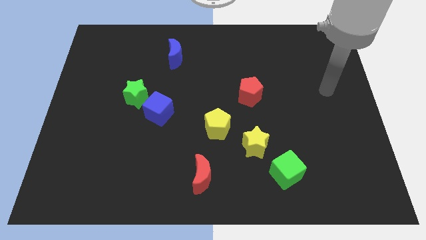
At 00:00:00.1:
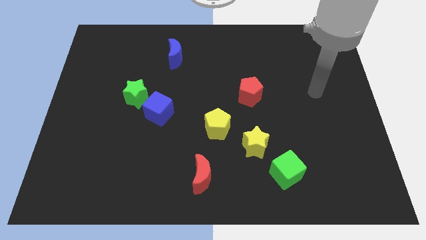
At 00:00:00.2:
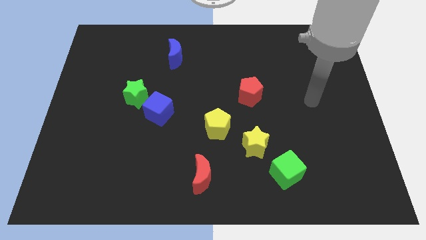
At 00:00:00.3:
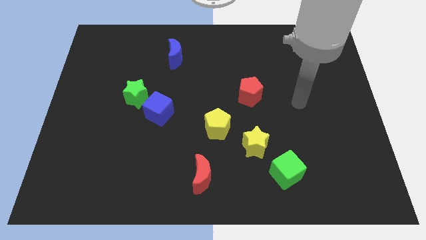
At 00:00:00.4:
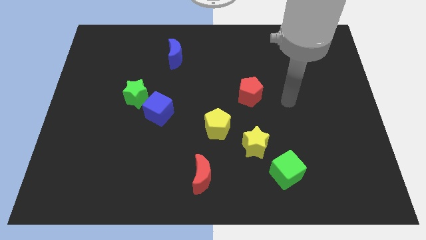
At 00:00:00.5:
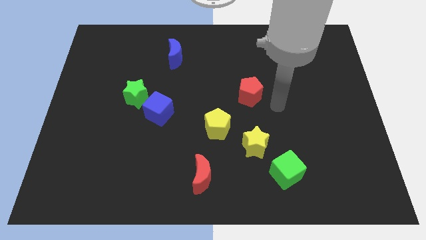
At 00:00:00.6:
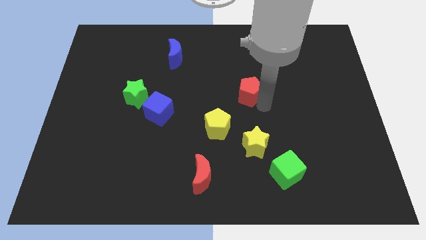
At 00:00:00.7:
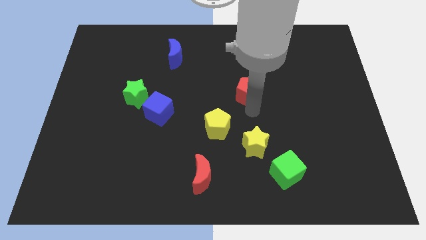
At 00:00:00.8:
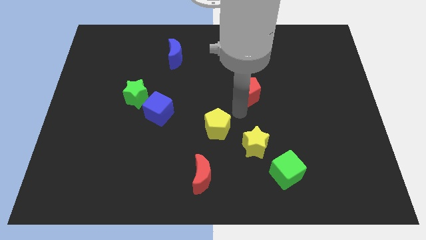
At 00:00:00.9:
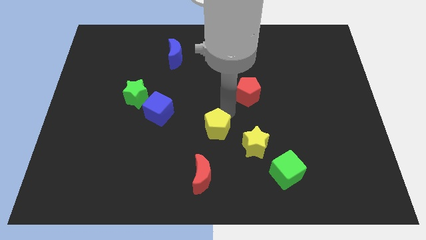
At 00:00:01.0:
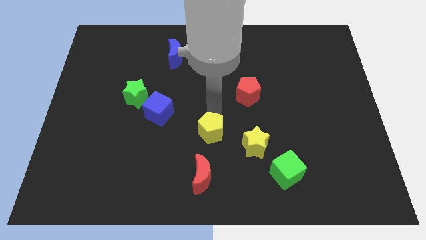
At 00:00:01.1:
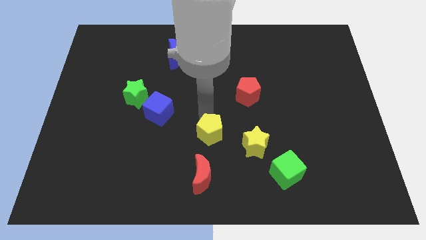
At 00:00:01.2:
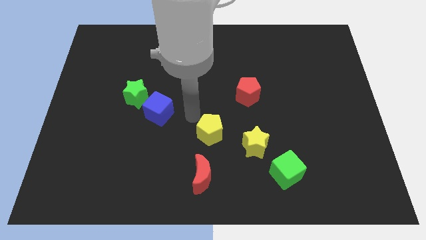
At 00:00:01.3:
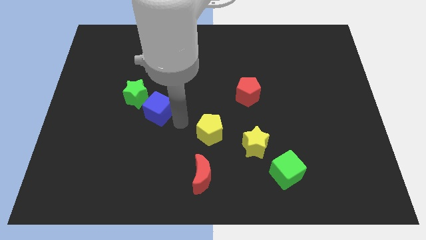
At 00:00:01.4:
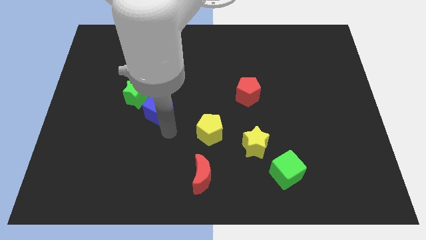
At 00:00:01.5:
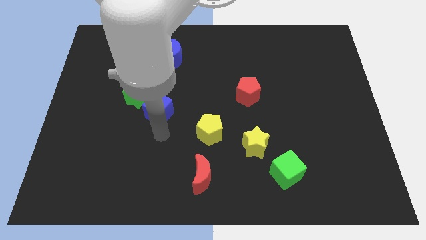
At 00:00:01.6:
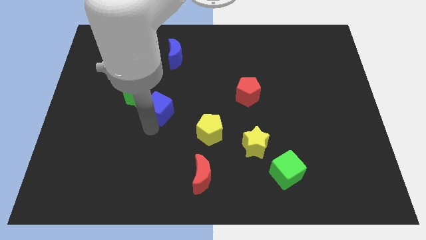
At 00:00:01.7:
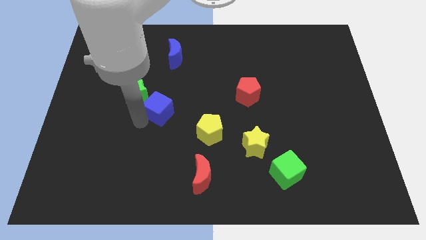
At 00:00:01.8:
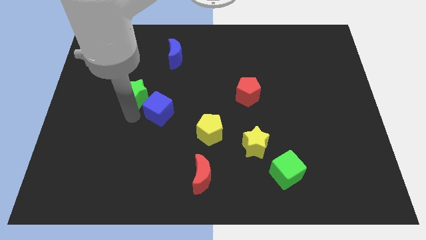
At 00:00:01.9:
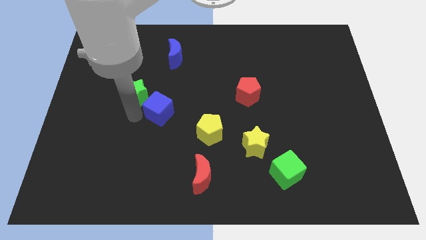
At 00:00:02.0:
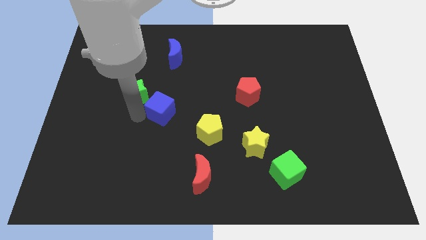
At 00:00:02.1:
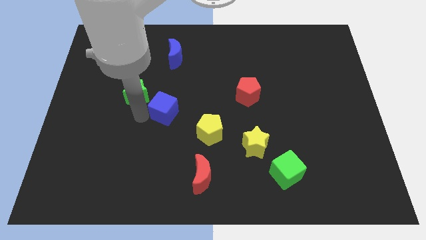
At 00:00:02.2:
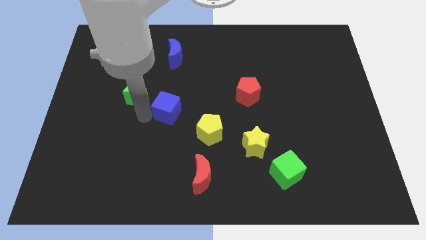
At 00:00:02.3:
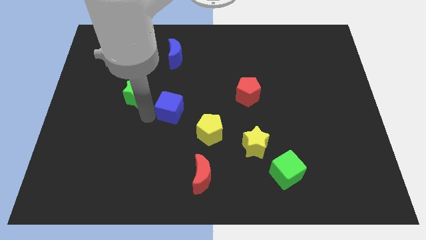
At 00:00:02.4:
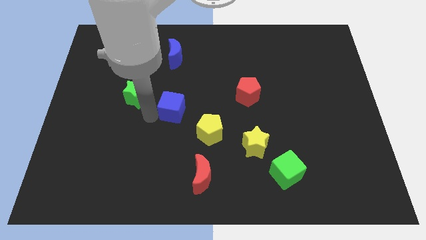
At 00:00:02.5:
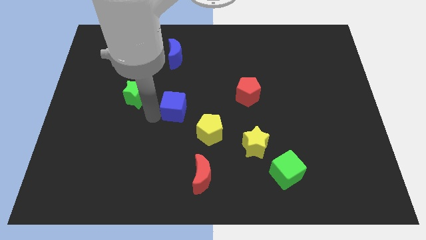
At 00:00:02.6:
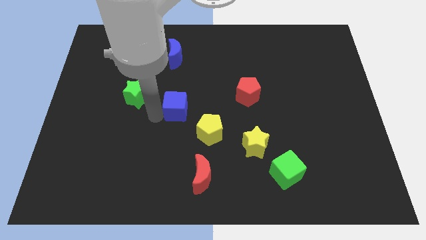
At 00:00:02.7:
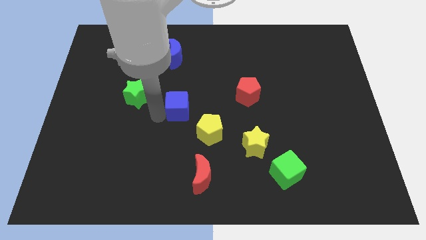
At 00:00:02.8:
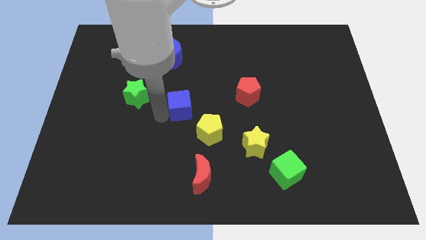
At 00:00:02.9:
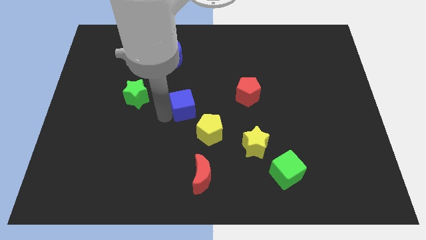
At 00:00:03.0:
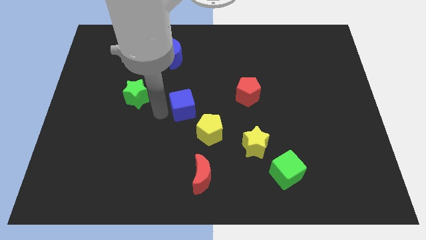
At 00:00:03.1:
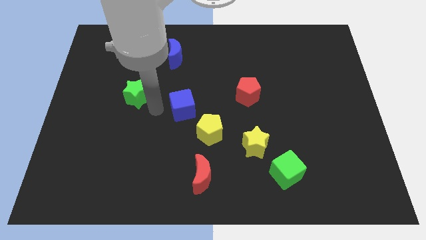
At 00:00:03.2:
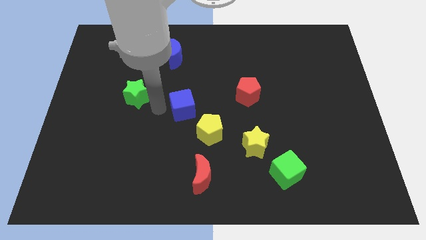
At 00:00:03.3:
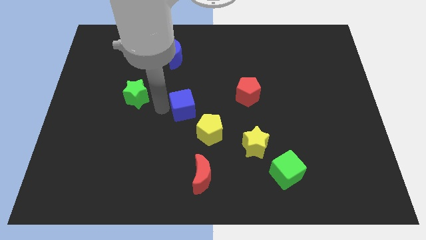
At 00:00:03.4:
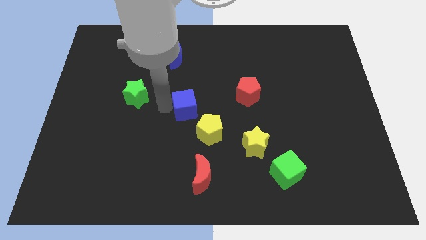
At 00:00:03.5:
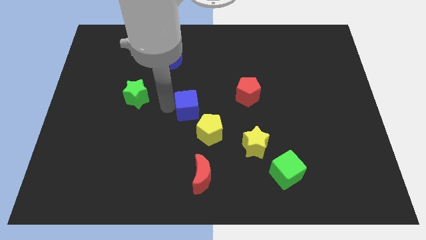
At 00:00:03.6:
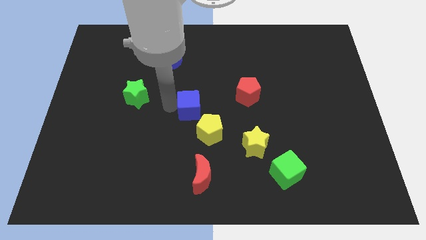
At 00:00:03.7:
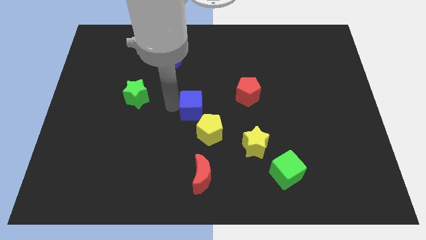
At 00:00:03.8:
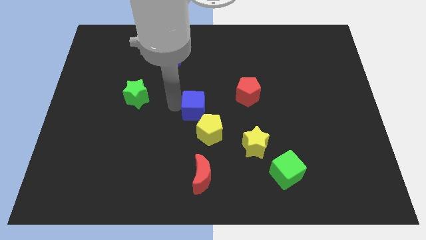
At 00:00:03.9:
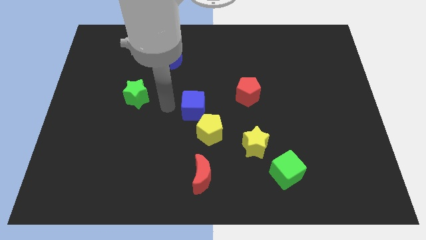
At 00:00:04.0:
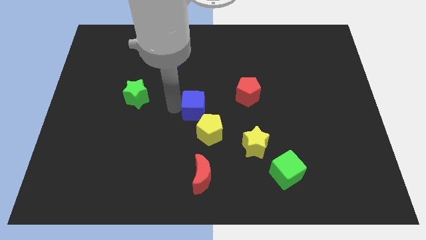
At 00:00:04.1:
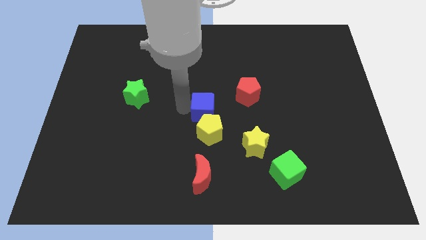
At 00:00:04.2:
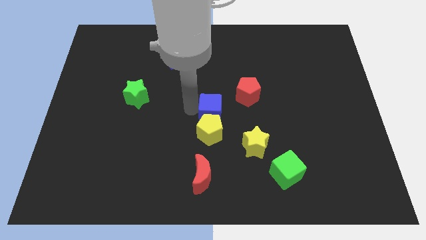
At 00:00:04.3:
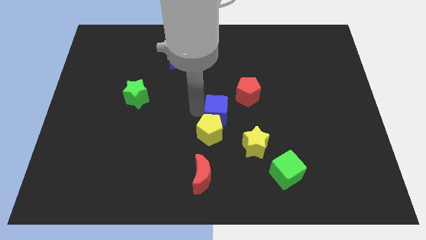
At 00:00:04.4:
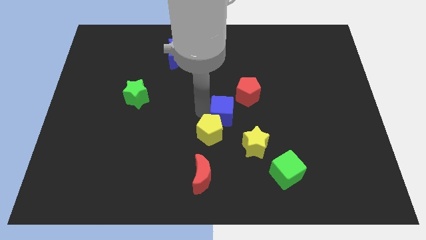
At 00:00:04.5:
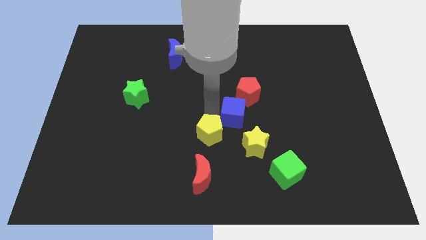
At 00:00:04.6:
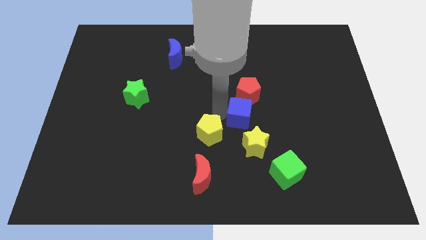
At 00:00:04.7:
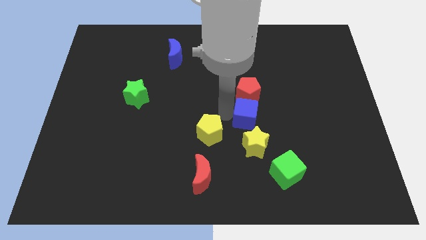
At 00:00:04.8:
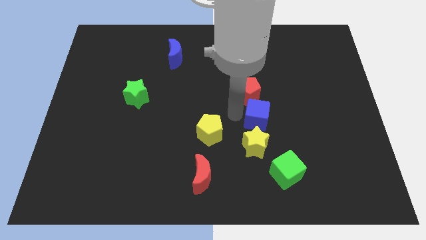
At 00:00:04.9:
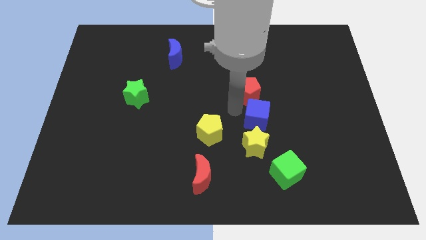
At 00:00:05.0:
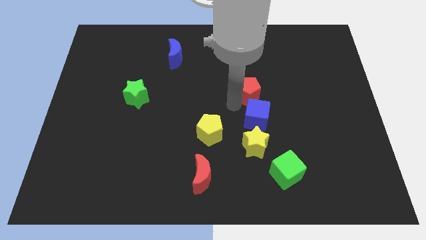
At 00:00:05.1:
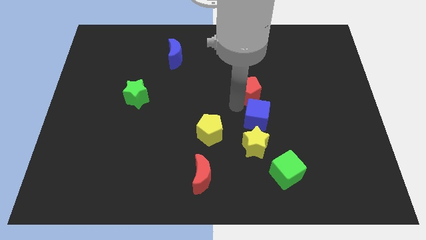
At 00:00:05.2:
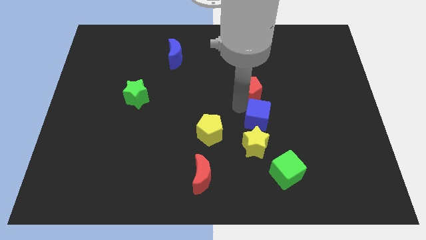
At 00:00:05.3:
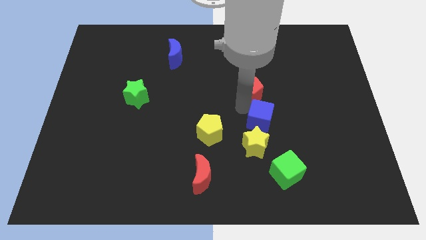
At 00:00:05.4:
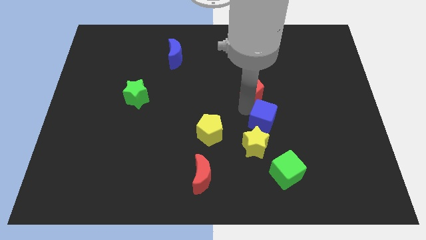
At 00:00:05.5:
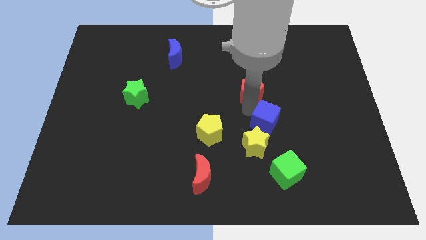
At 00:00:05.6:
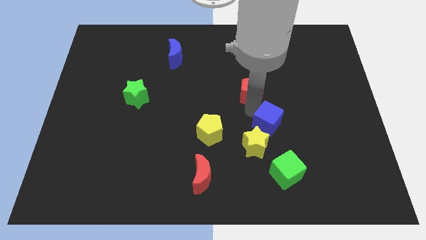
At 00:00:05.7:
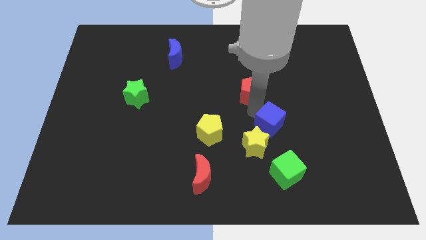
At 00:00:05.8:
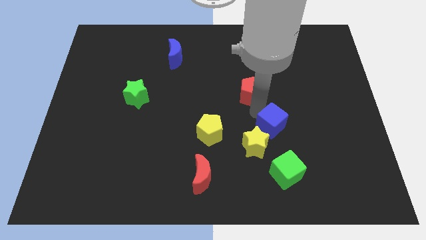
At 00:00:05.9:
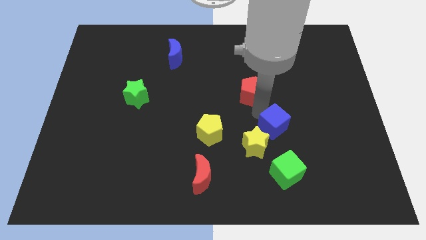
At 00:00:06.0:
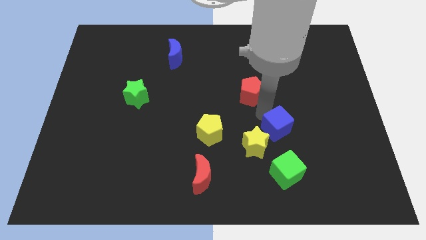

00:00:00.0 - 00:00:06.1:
push the blue cube to the right side of the yellow star

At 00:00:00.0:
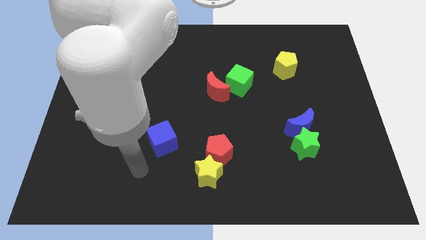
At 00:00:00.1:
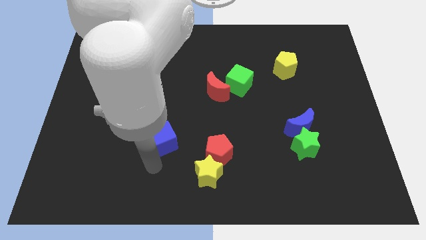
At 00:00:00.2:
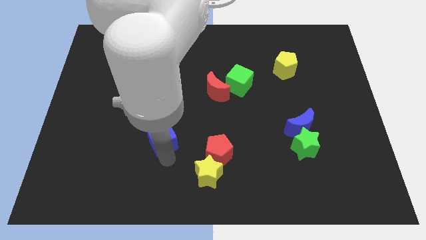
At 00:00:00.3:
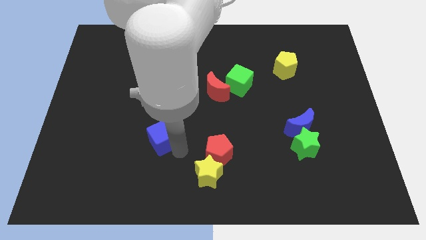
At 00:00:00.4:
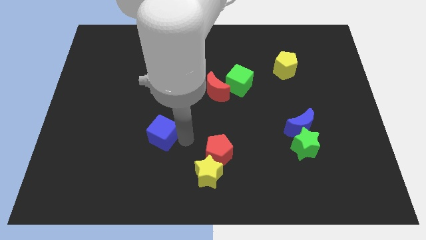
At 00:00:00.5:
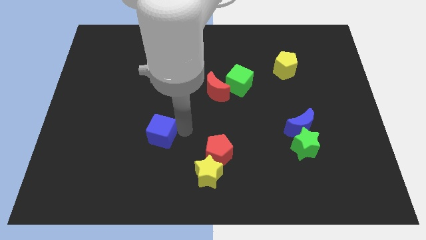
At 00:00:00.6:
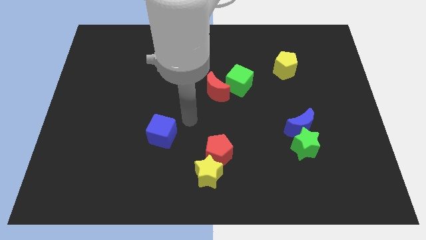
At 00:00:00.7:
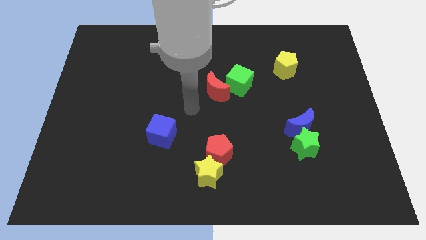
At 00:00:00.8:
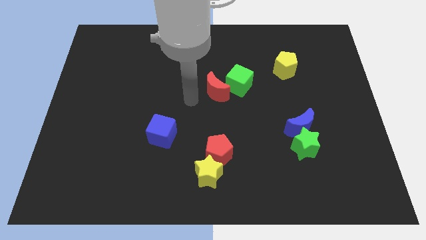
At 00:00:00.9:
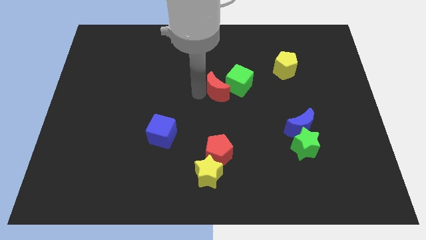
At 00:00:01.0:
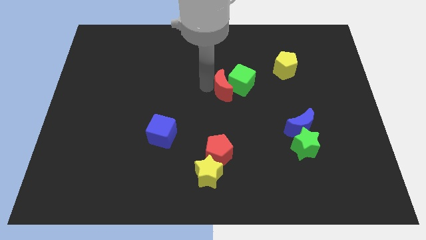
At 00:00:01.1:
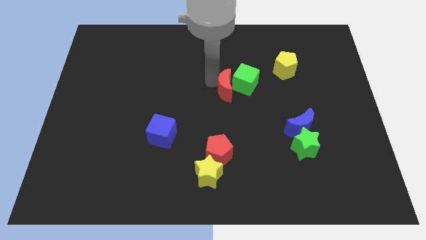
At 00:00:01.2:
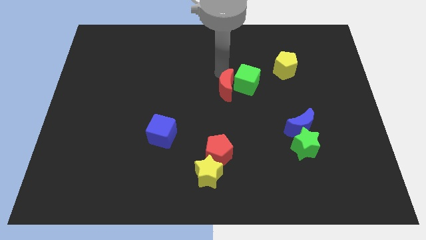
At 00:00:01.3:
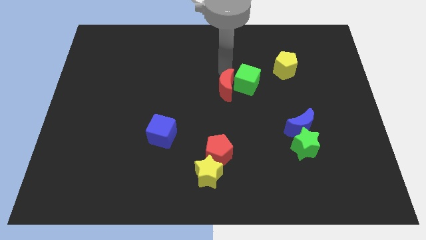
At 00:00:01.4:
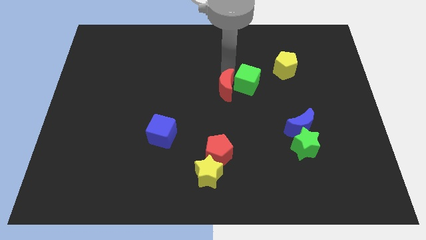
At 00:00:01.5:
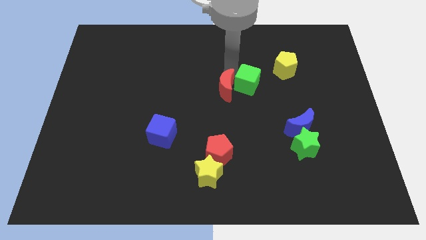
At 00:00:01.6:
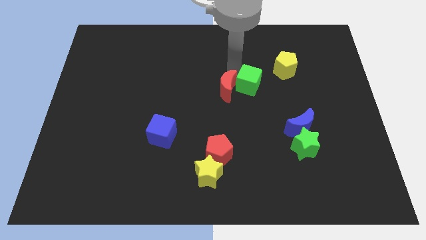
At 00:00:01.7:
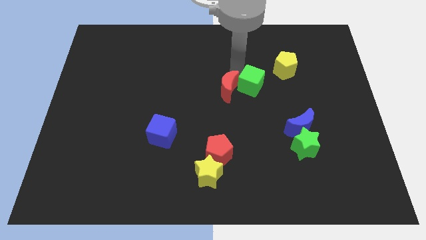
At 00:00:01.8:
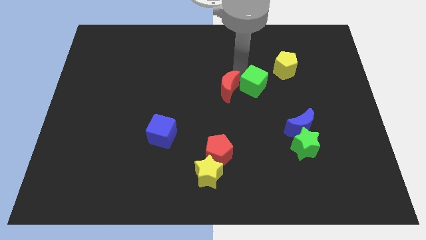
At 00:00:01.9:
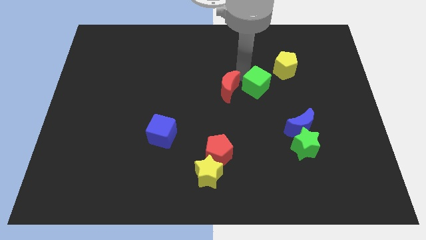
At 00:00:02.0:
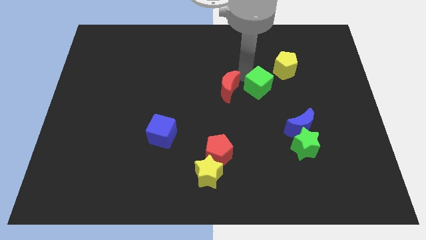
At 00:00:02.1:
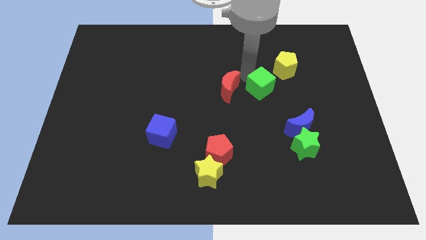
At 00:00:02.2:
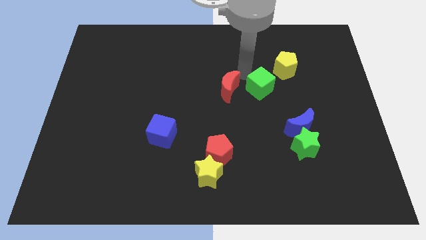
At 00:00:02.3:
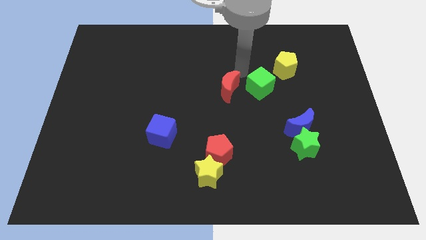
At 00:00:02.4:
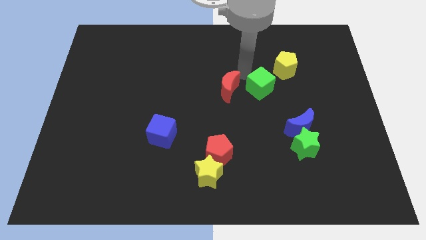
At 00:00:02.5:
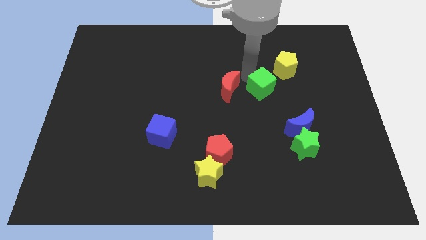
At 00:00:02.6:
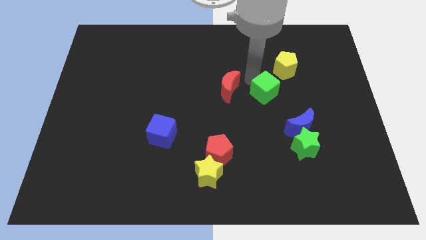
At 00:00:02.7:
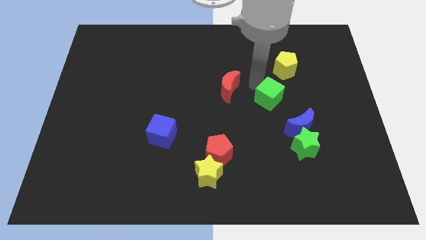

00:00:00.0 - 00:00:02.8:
move the green cube to the bottom side of the yellow pentagon
